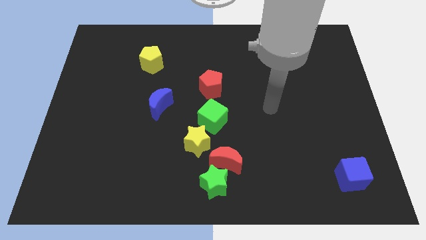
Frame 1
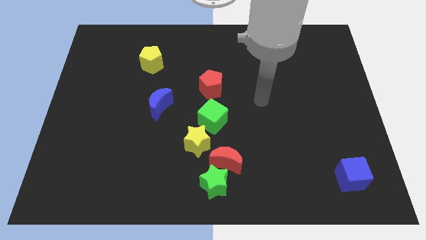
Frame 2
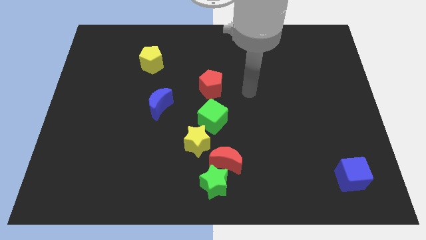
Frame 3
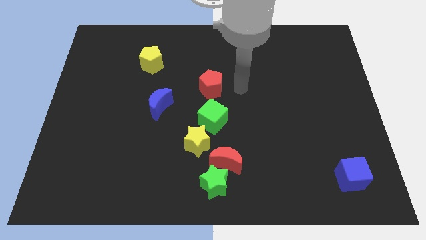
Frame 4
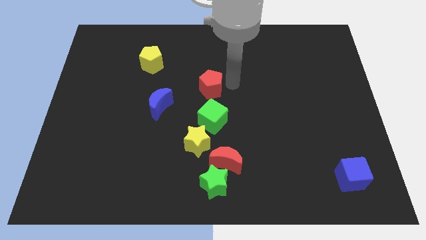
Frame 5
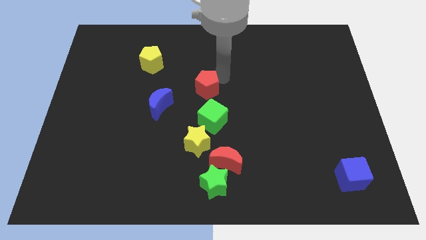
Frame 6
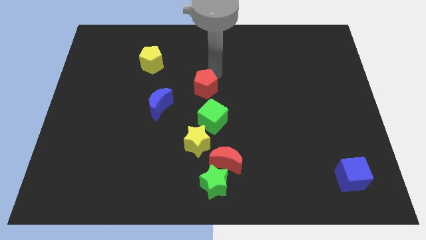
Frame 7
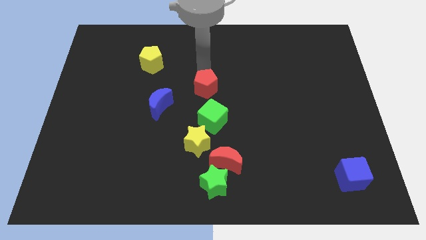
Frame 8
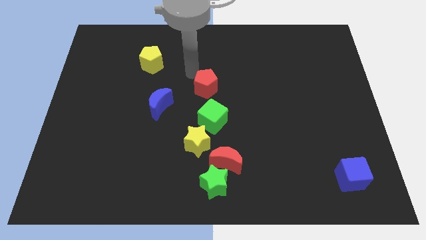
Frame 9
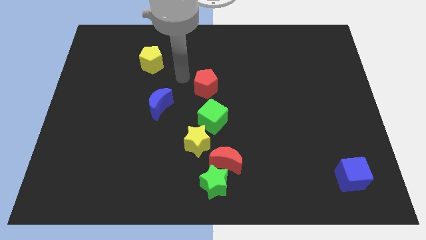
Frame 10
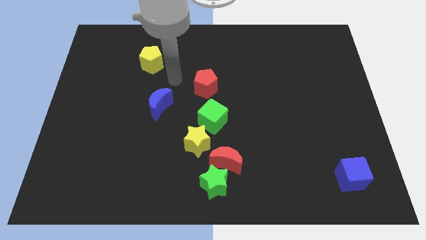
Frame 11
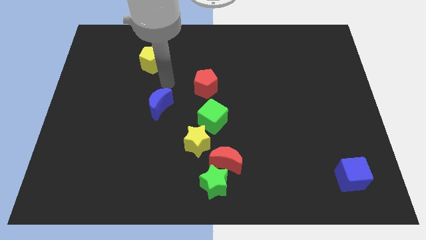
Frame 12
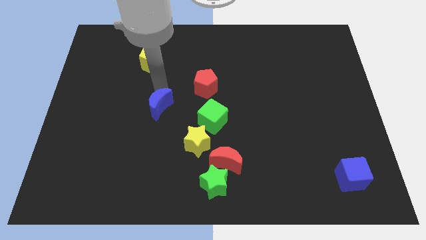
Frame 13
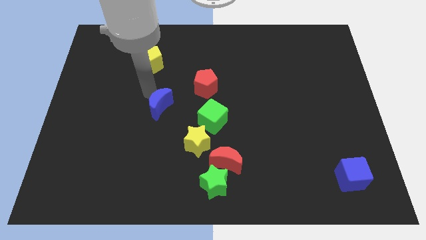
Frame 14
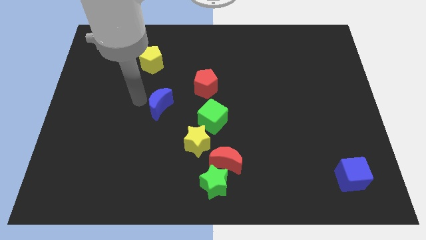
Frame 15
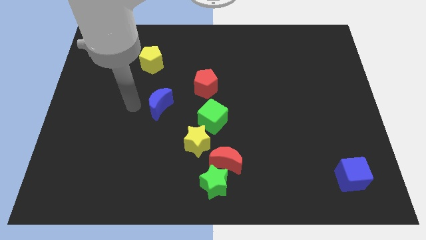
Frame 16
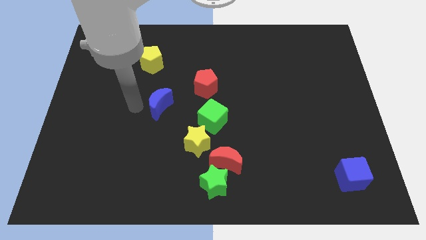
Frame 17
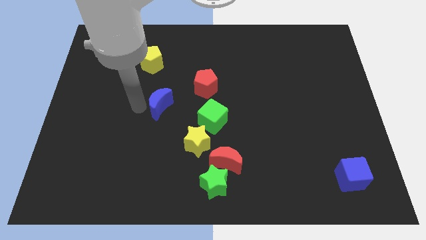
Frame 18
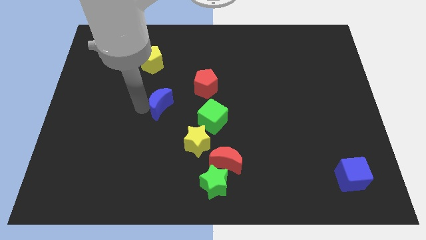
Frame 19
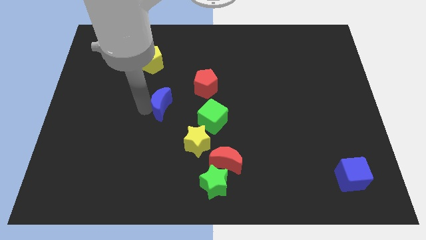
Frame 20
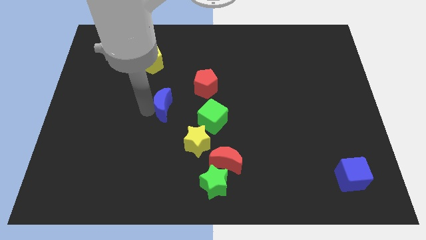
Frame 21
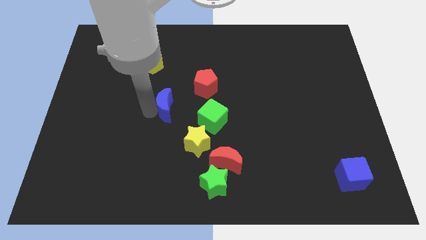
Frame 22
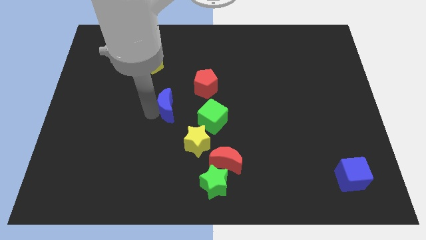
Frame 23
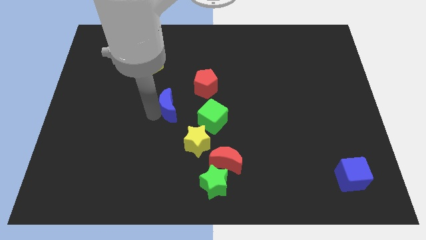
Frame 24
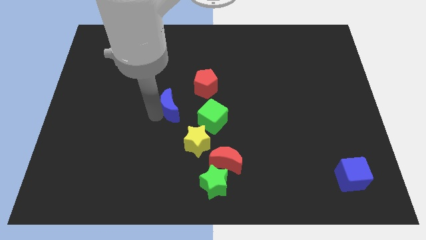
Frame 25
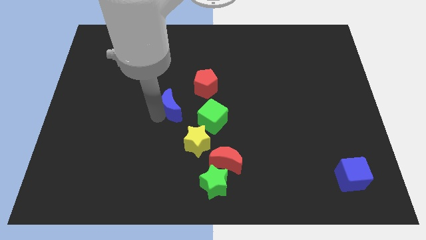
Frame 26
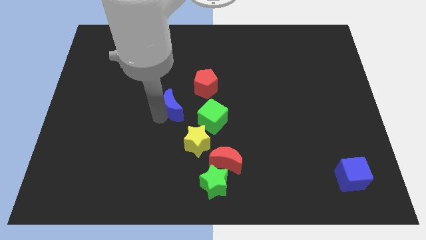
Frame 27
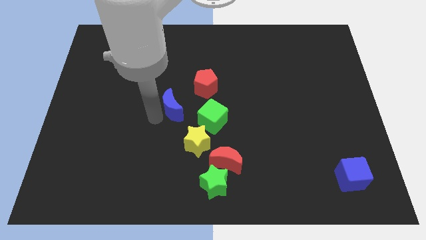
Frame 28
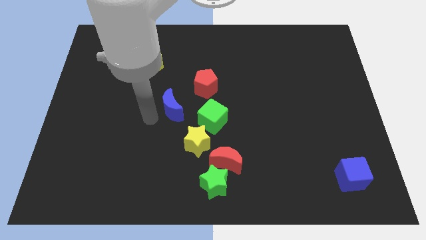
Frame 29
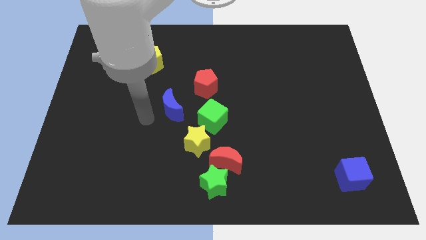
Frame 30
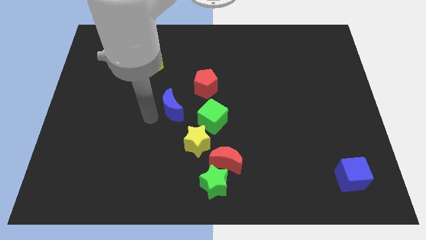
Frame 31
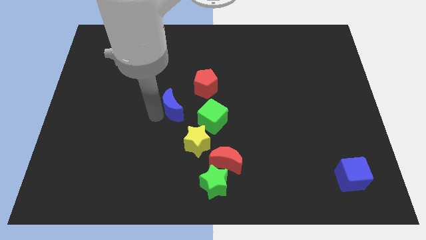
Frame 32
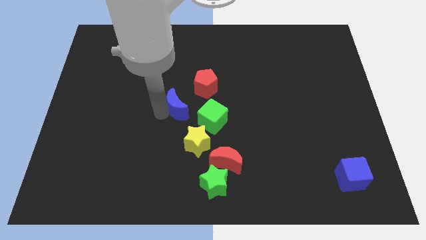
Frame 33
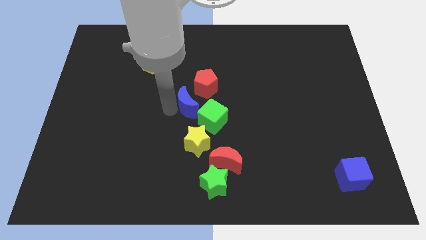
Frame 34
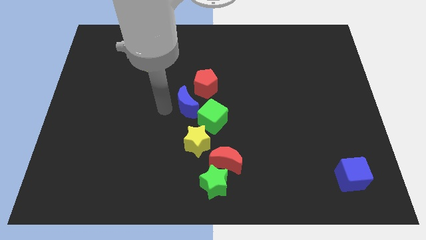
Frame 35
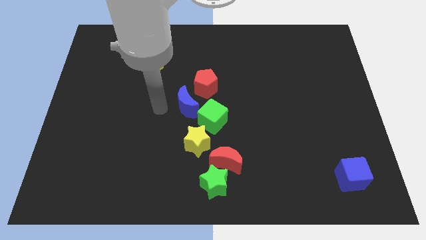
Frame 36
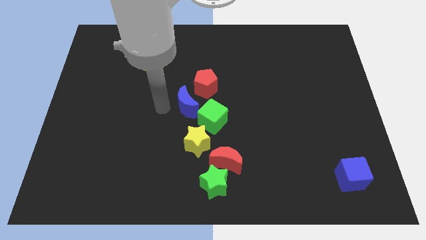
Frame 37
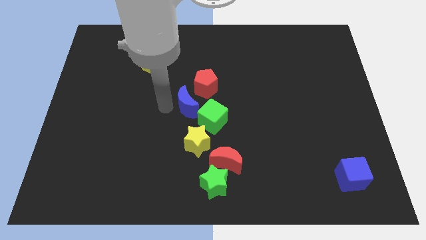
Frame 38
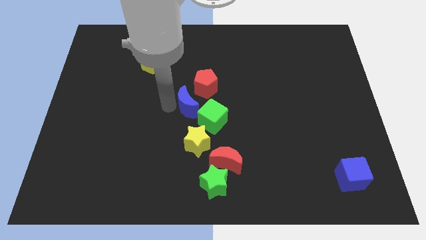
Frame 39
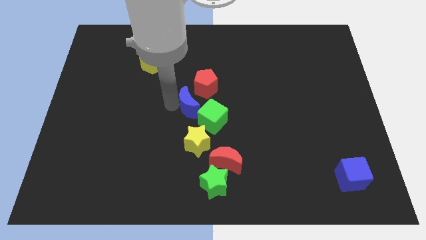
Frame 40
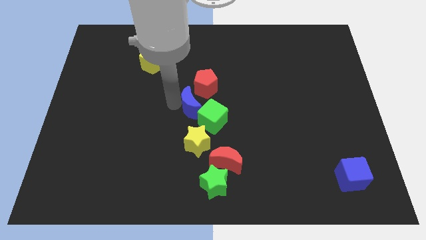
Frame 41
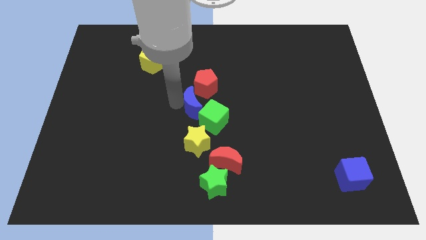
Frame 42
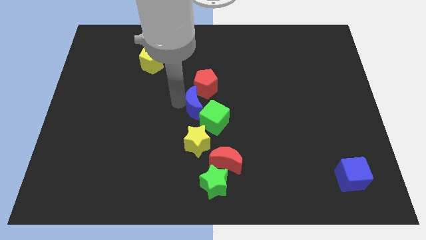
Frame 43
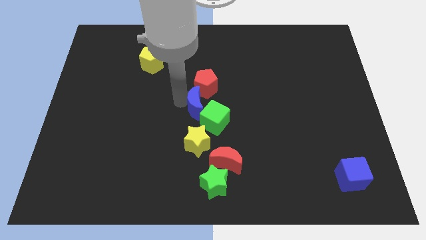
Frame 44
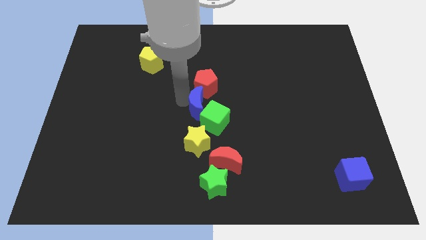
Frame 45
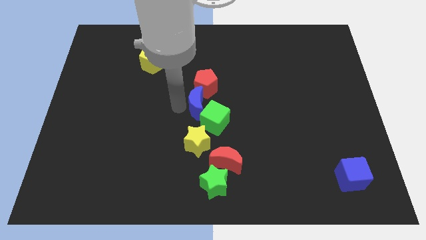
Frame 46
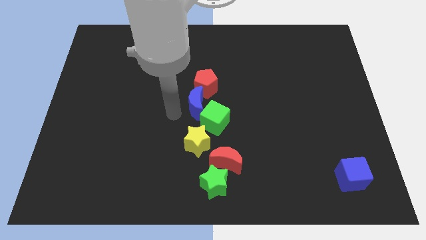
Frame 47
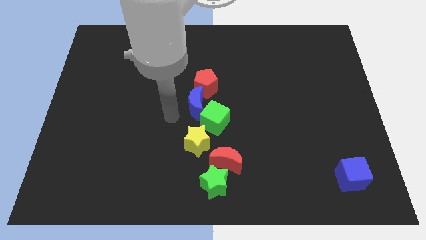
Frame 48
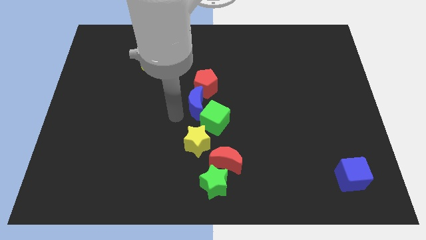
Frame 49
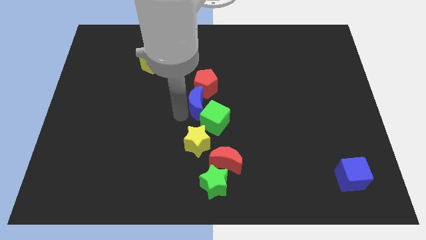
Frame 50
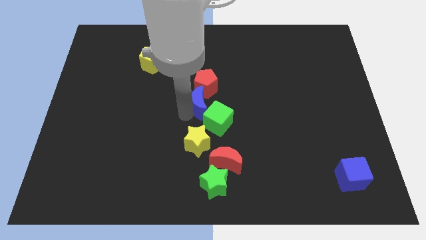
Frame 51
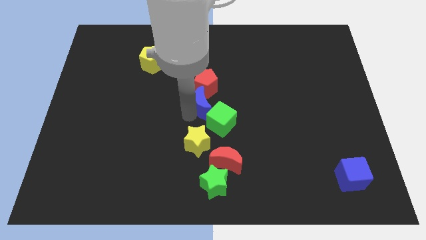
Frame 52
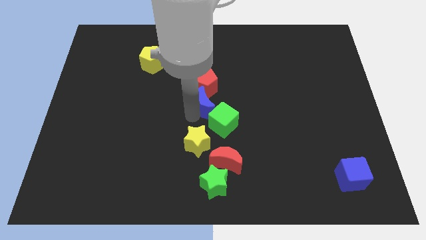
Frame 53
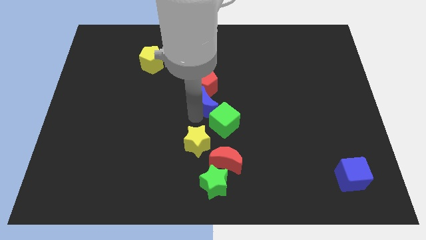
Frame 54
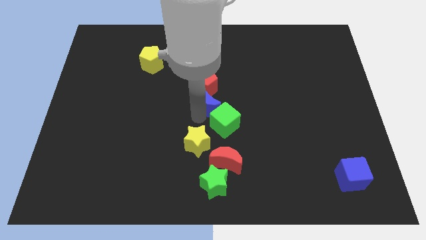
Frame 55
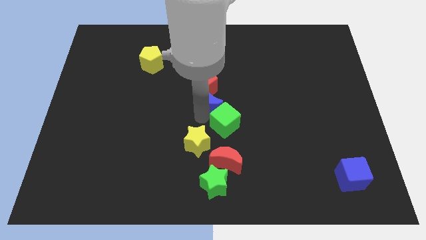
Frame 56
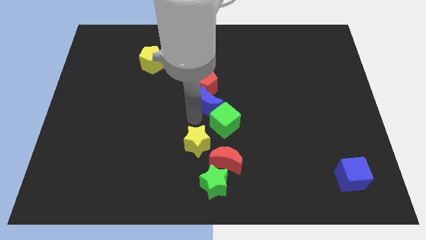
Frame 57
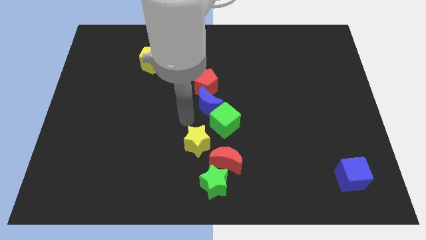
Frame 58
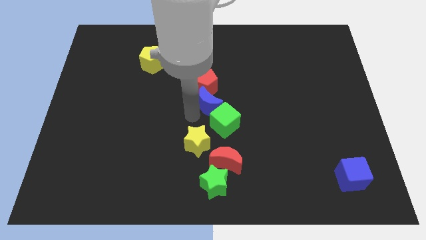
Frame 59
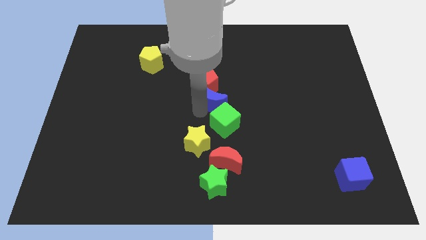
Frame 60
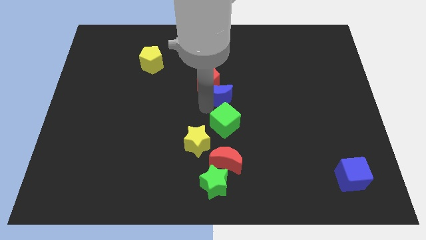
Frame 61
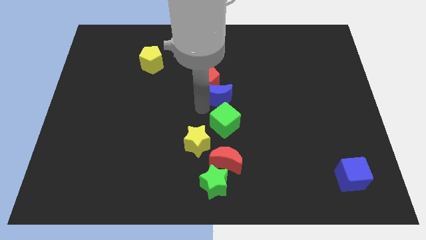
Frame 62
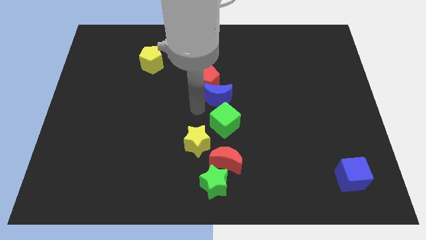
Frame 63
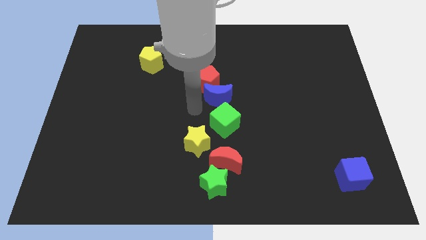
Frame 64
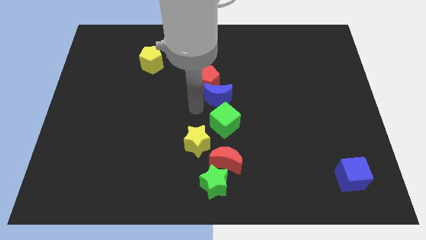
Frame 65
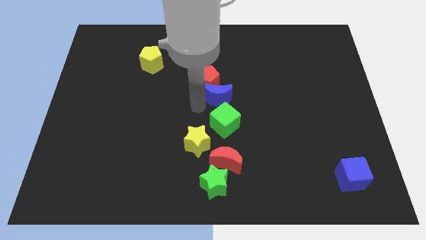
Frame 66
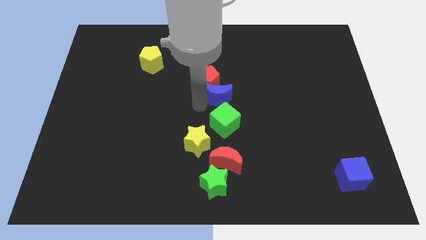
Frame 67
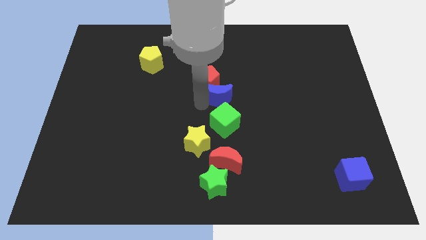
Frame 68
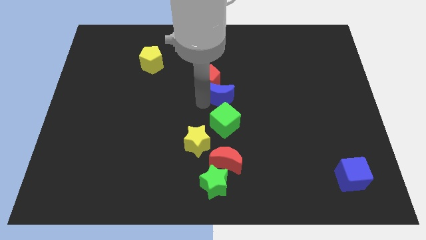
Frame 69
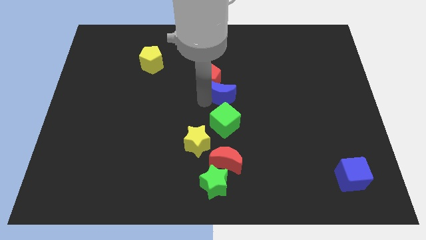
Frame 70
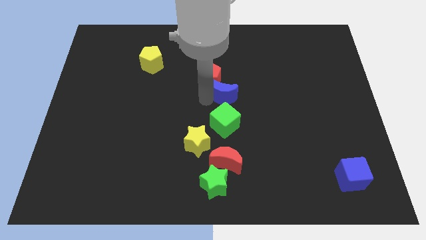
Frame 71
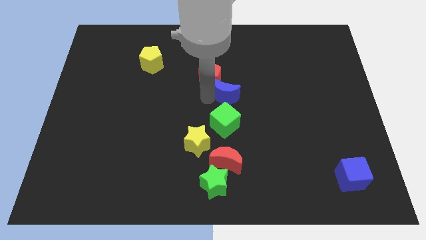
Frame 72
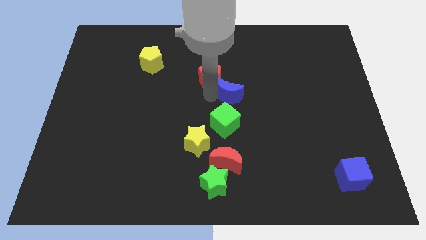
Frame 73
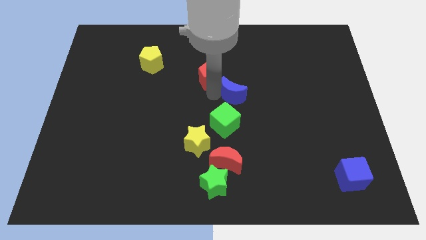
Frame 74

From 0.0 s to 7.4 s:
slide the blue moon to the right side of the red pentagon

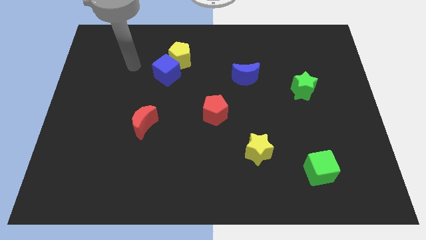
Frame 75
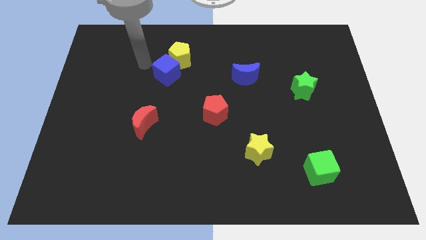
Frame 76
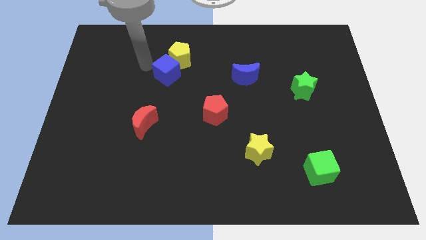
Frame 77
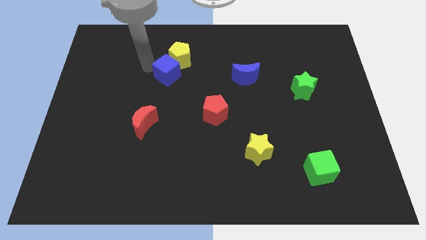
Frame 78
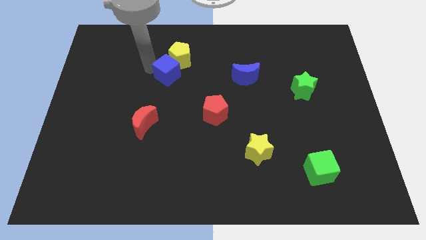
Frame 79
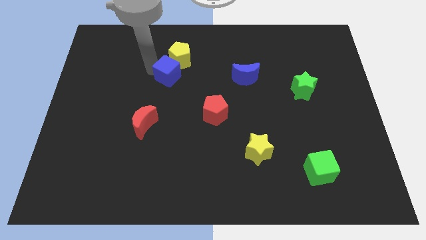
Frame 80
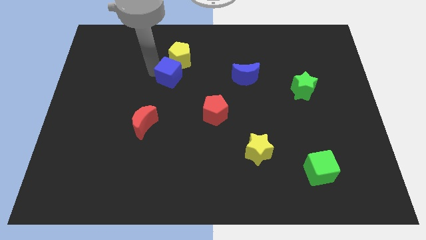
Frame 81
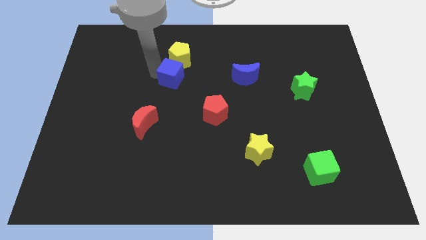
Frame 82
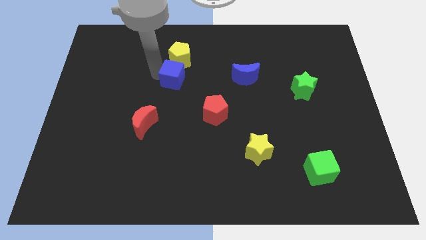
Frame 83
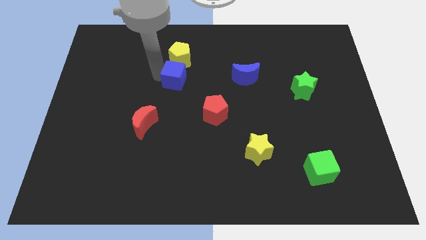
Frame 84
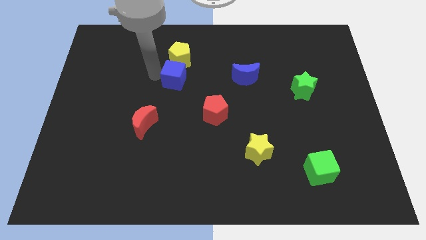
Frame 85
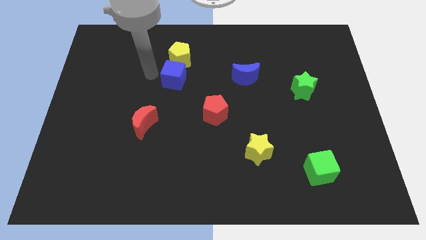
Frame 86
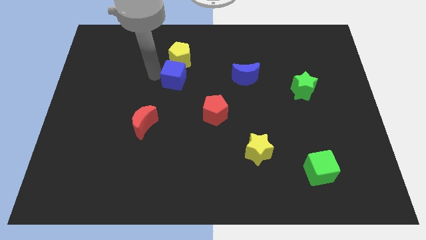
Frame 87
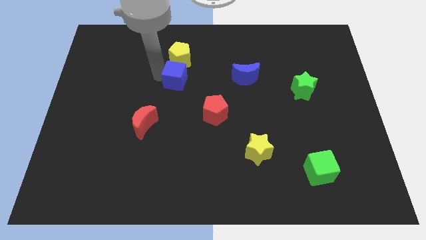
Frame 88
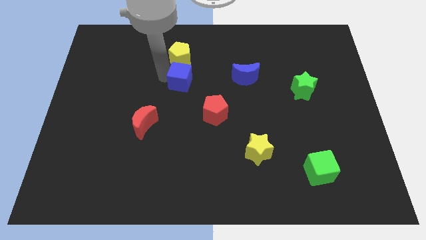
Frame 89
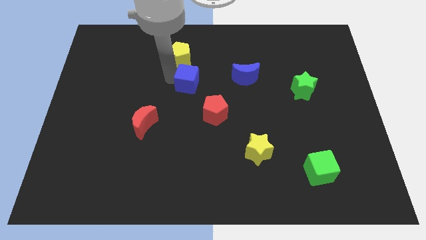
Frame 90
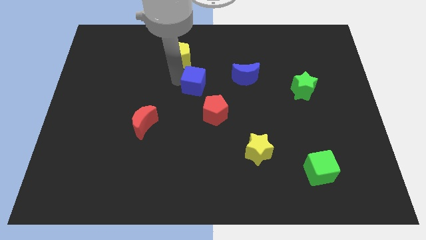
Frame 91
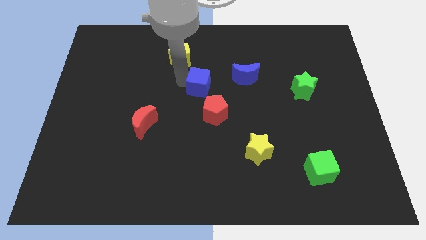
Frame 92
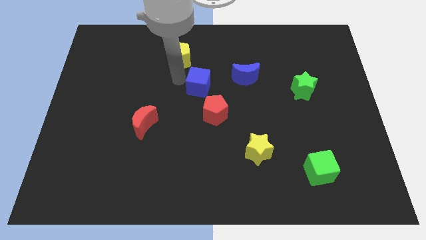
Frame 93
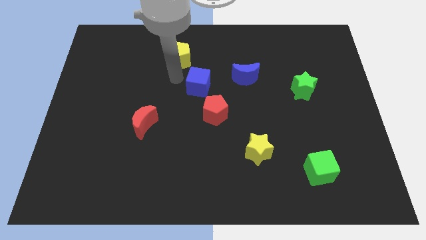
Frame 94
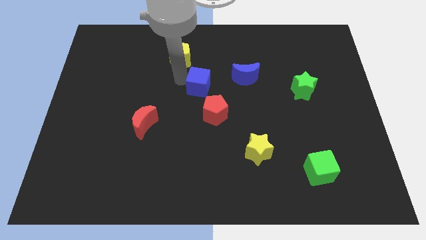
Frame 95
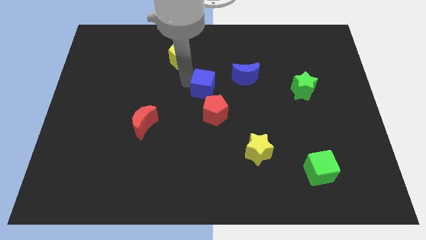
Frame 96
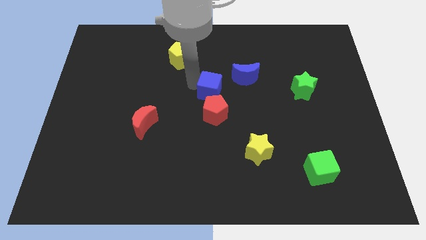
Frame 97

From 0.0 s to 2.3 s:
put the blue cube to the bottom left of the blue moon
